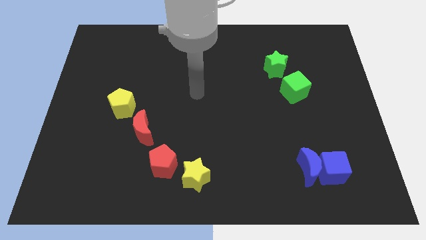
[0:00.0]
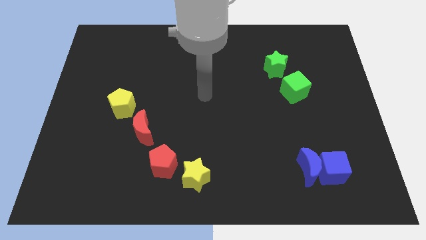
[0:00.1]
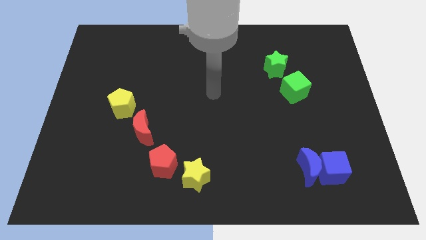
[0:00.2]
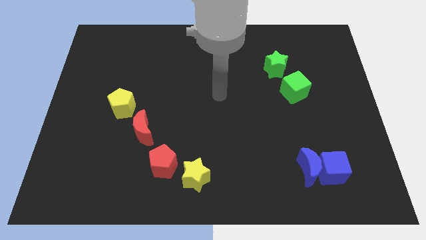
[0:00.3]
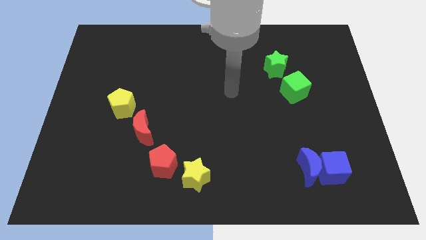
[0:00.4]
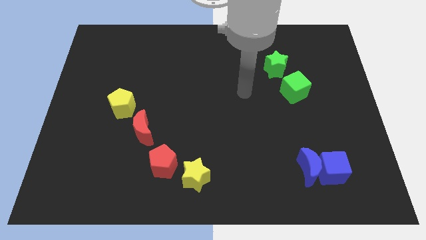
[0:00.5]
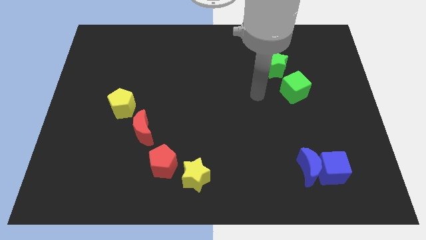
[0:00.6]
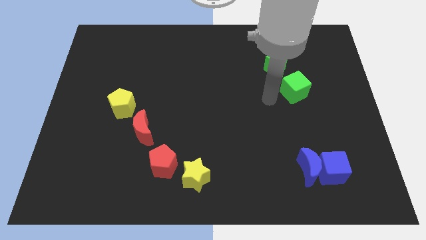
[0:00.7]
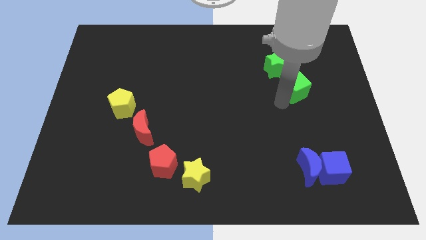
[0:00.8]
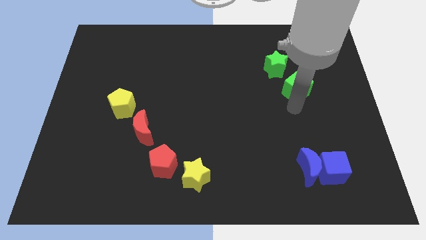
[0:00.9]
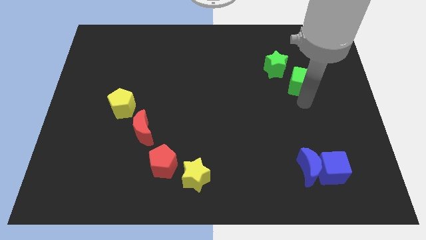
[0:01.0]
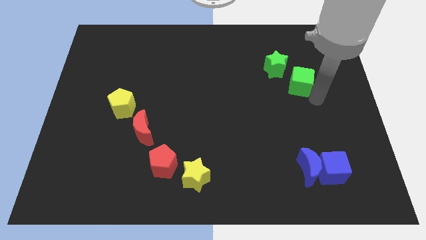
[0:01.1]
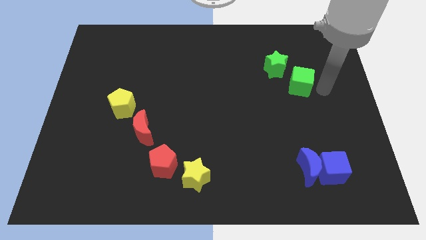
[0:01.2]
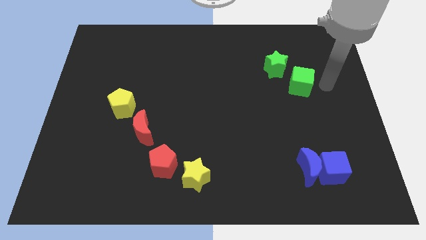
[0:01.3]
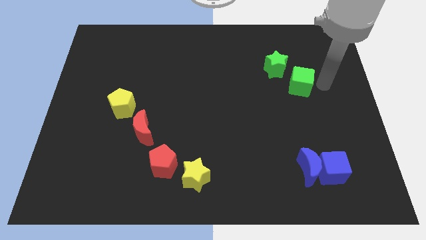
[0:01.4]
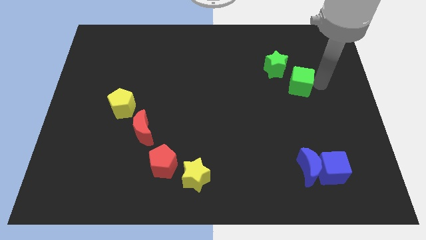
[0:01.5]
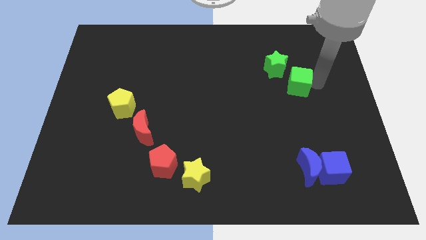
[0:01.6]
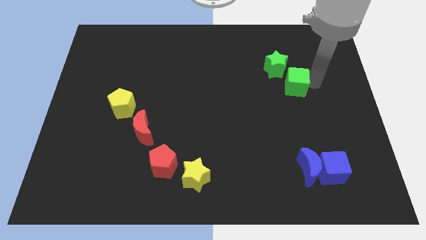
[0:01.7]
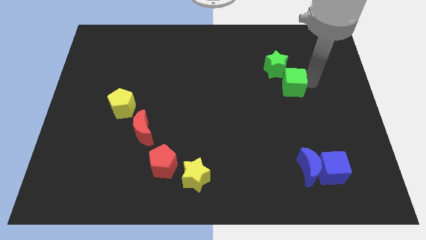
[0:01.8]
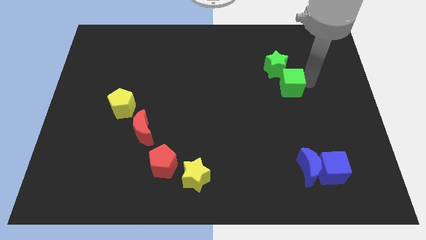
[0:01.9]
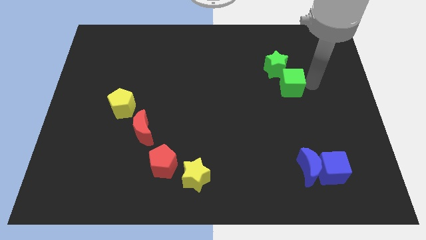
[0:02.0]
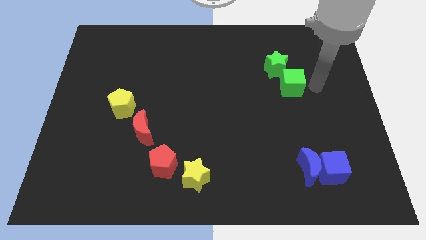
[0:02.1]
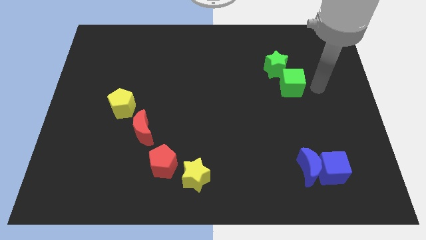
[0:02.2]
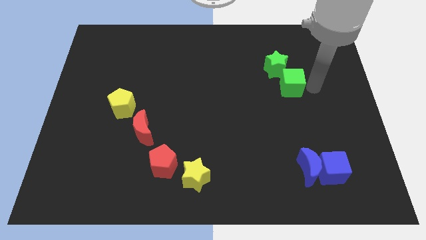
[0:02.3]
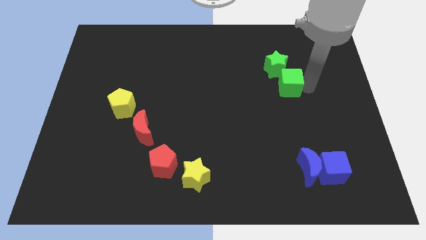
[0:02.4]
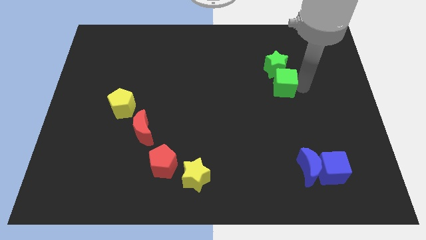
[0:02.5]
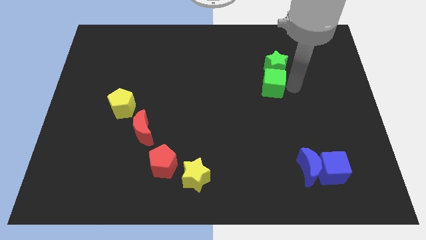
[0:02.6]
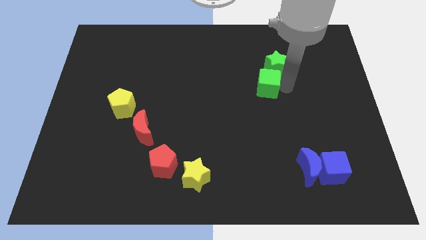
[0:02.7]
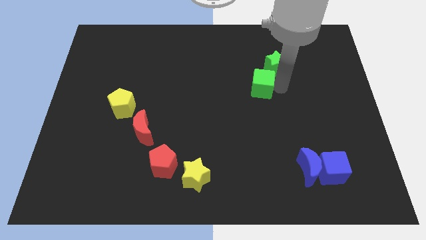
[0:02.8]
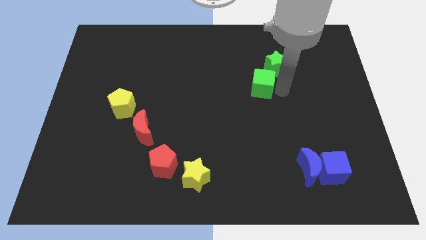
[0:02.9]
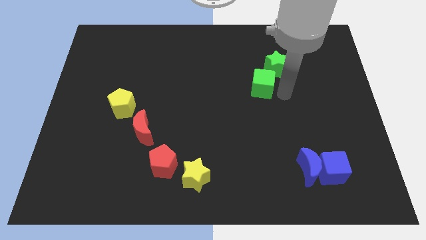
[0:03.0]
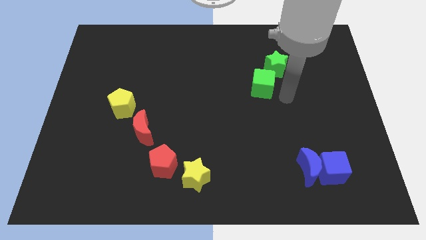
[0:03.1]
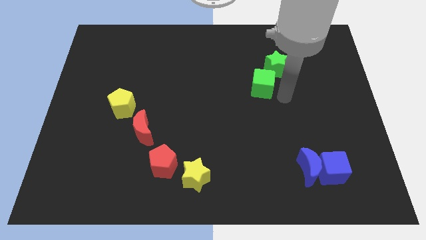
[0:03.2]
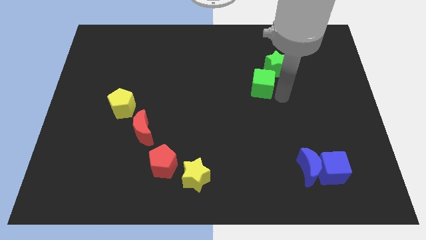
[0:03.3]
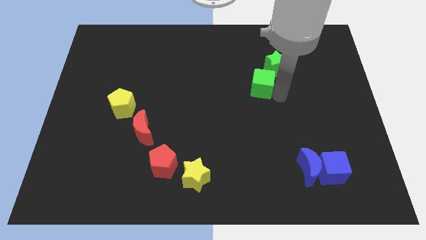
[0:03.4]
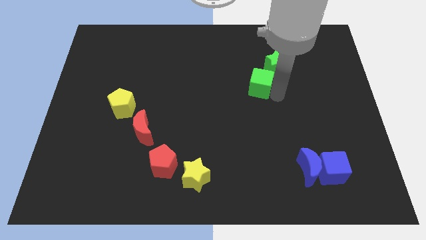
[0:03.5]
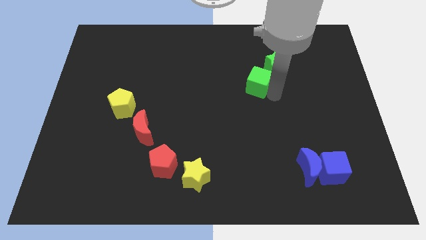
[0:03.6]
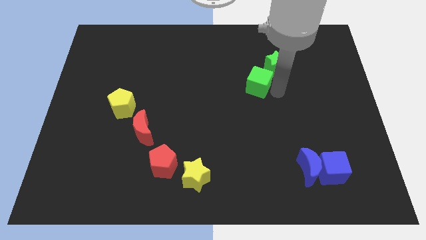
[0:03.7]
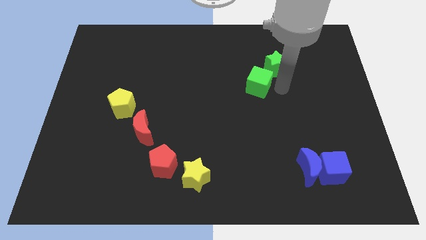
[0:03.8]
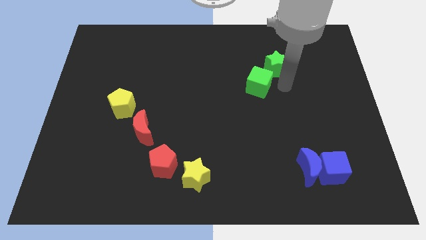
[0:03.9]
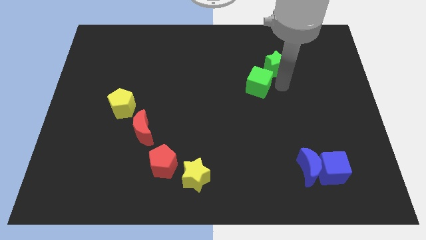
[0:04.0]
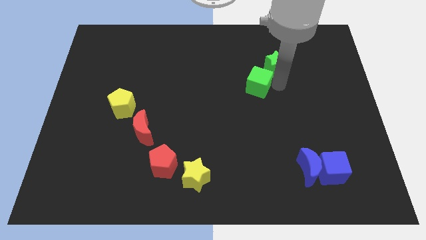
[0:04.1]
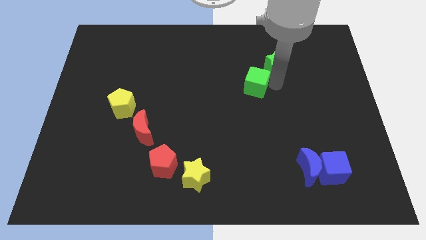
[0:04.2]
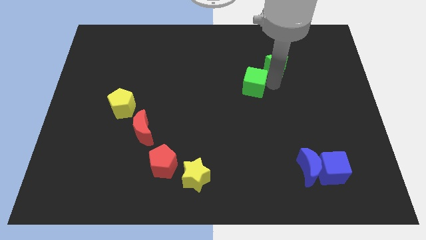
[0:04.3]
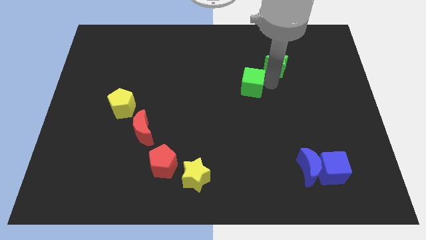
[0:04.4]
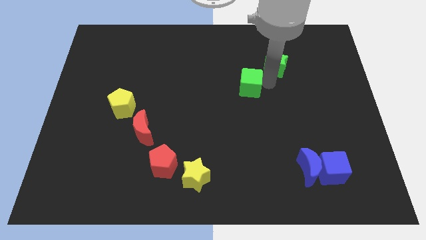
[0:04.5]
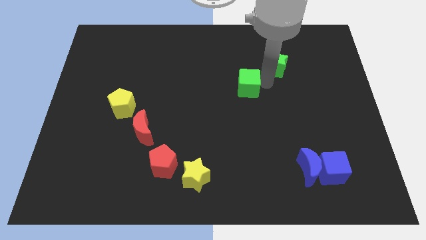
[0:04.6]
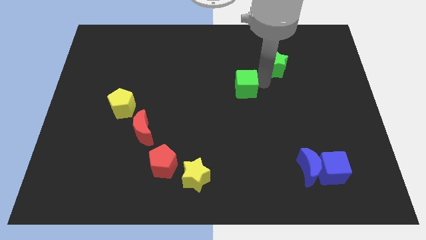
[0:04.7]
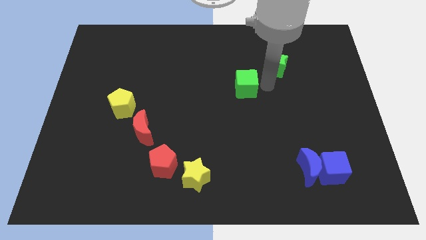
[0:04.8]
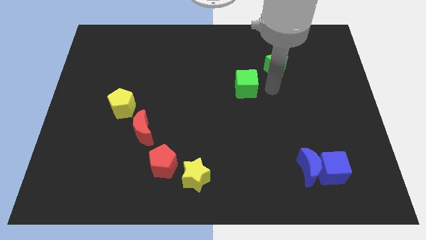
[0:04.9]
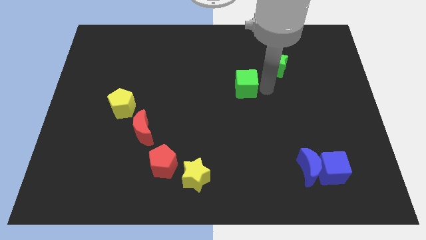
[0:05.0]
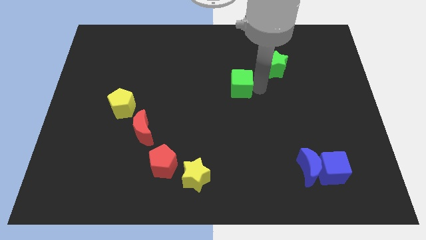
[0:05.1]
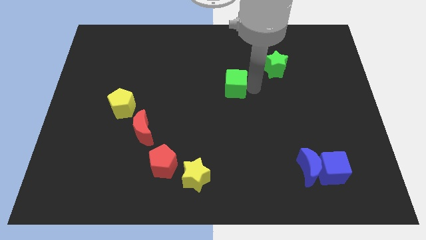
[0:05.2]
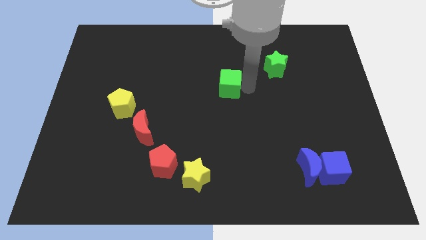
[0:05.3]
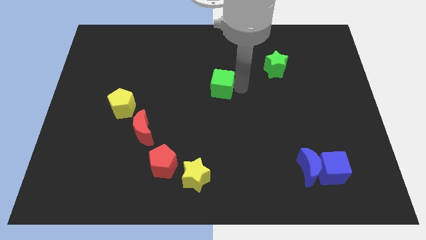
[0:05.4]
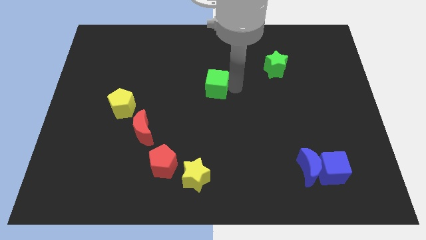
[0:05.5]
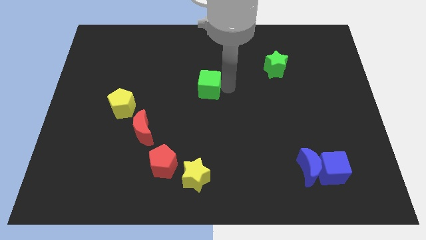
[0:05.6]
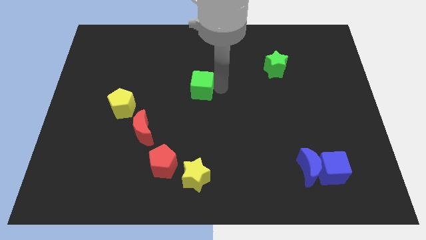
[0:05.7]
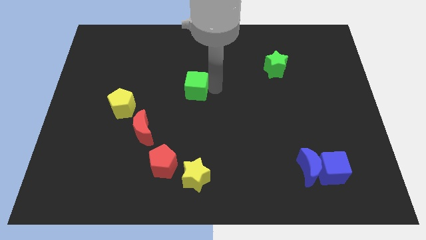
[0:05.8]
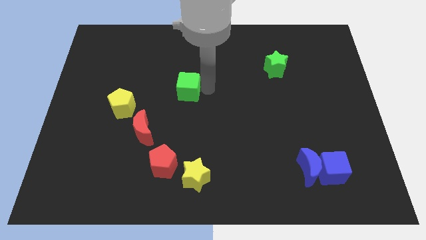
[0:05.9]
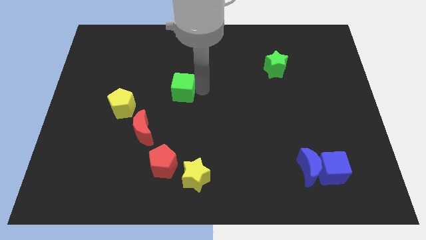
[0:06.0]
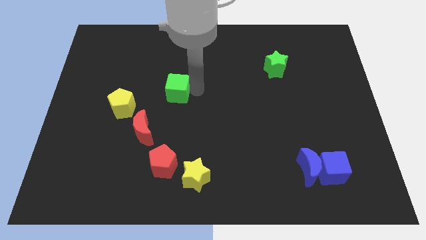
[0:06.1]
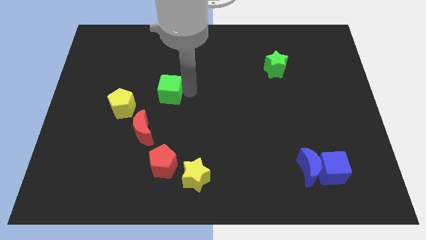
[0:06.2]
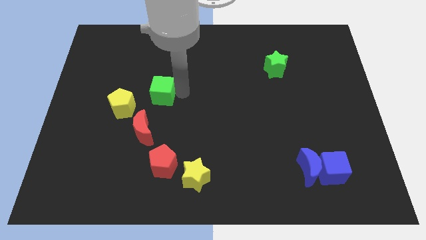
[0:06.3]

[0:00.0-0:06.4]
slide the green cube diagonally up and to the right of the yellow pentagon

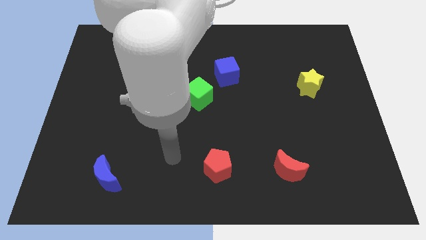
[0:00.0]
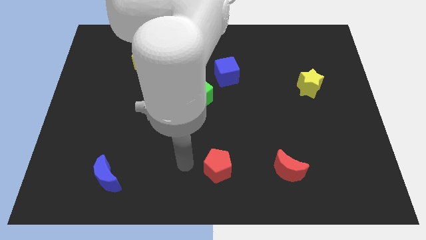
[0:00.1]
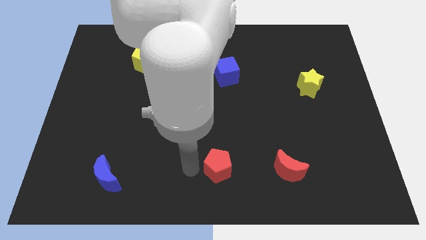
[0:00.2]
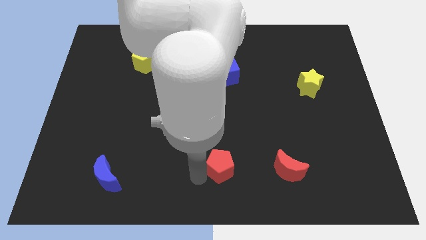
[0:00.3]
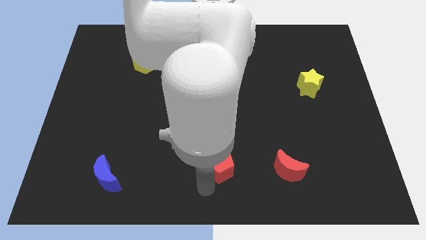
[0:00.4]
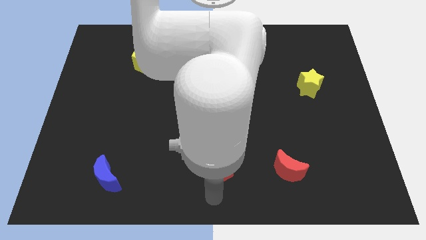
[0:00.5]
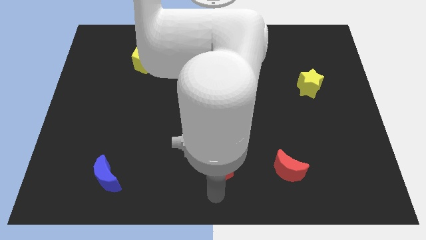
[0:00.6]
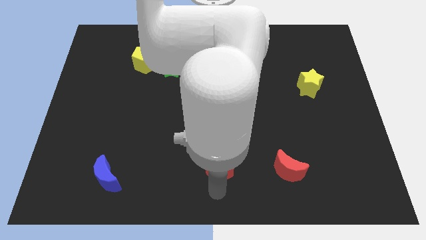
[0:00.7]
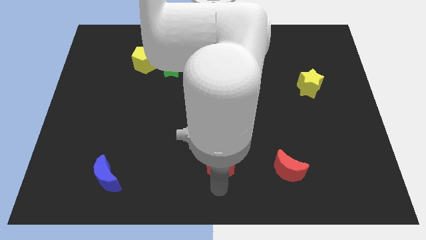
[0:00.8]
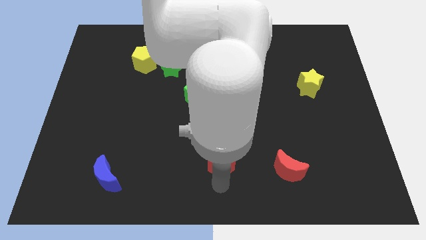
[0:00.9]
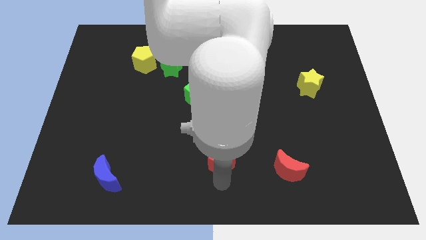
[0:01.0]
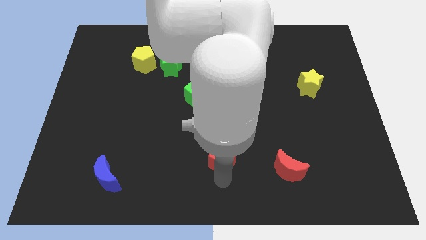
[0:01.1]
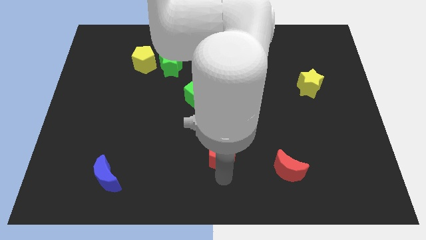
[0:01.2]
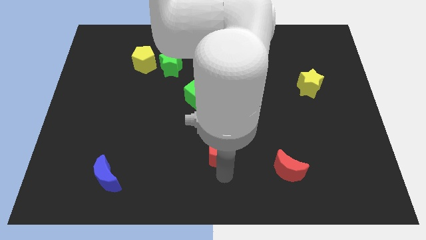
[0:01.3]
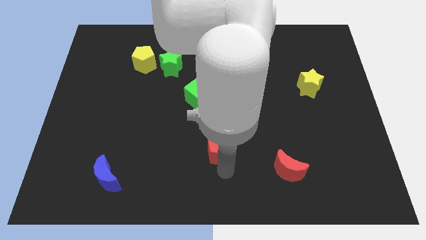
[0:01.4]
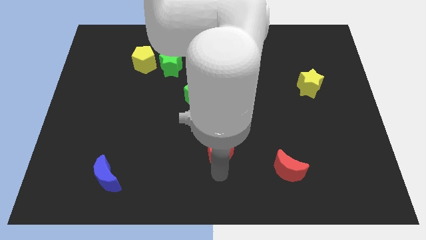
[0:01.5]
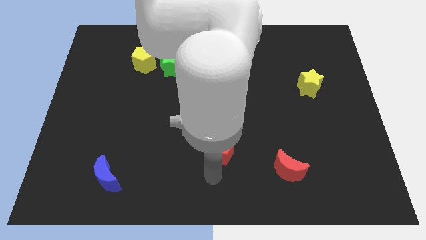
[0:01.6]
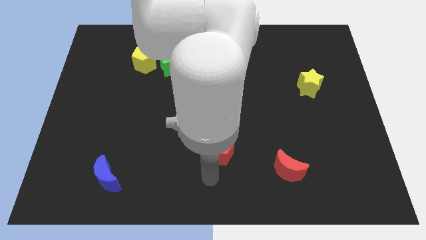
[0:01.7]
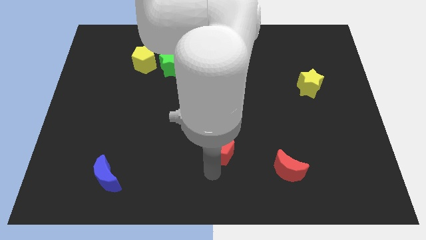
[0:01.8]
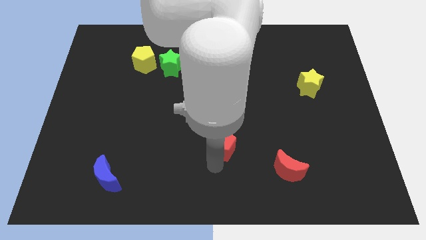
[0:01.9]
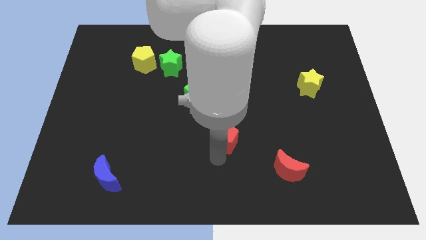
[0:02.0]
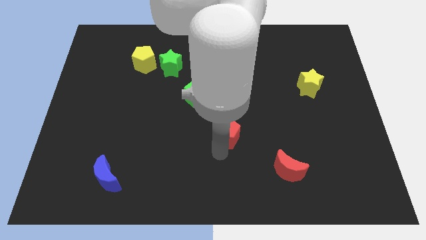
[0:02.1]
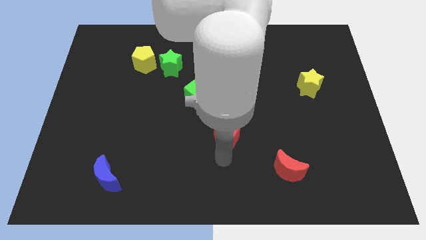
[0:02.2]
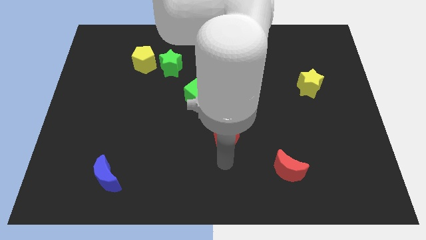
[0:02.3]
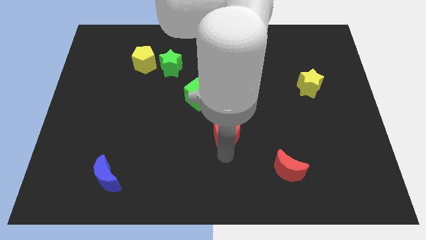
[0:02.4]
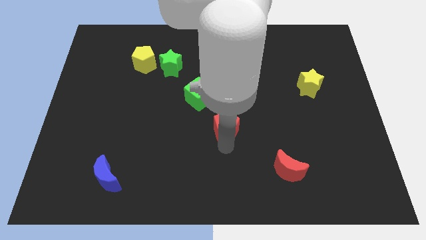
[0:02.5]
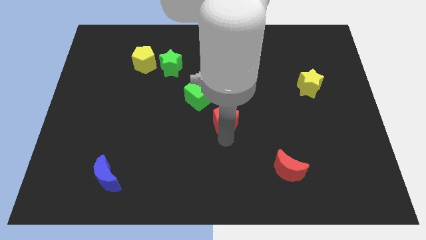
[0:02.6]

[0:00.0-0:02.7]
put the red pentagon to the bottom side of the blue cube

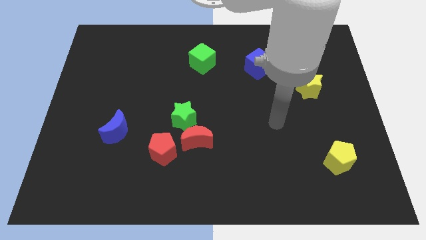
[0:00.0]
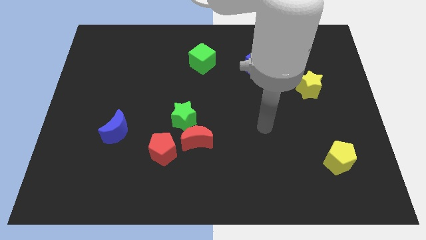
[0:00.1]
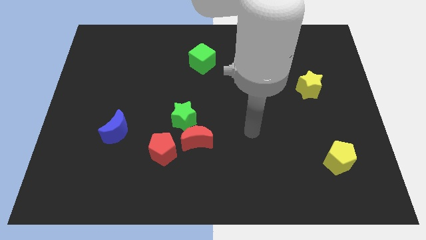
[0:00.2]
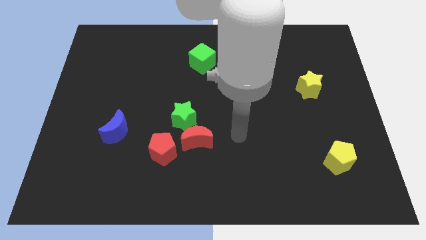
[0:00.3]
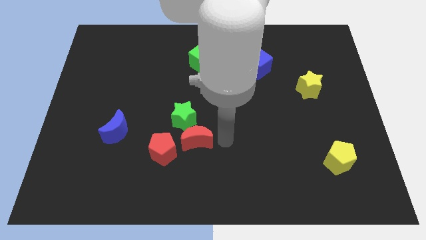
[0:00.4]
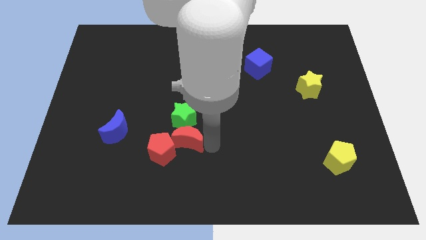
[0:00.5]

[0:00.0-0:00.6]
slide the red pentagon to the bottom right side of the blue moon
